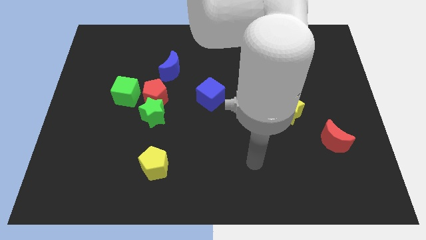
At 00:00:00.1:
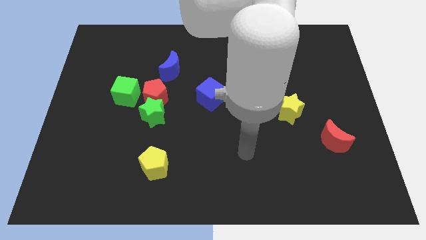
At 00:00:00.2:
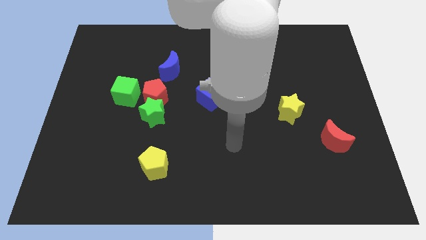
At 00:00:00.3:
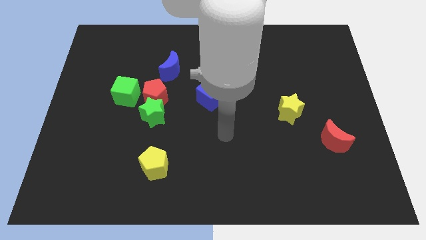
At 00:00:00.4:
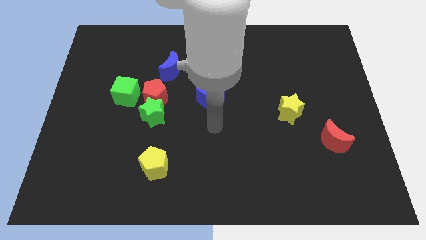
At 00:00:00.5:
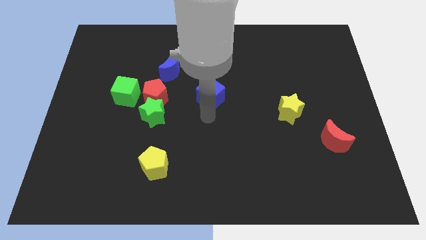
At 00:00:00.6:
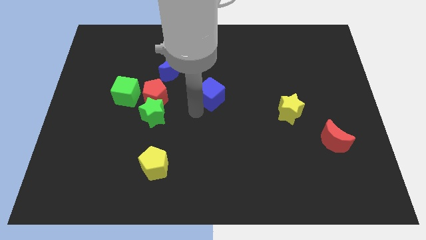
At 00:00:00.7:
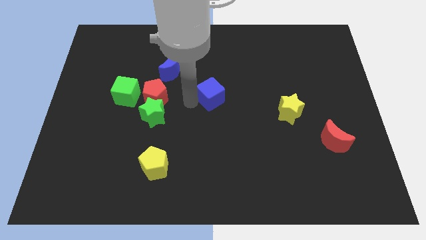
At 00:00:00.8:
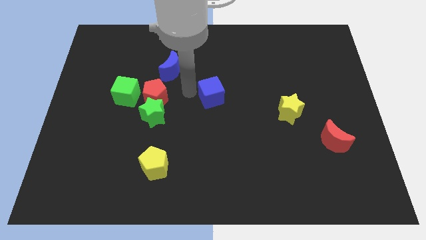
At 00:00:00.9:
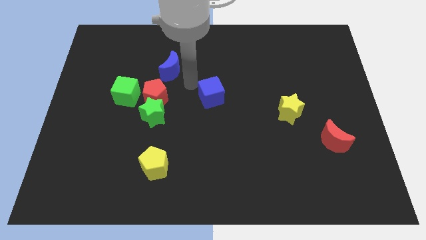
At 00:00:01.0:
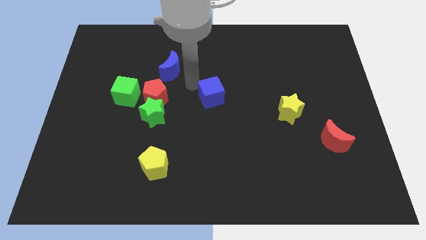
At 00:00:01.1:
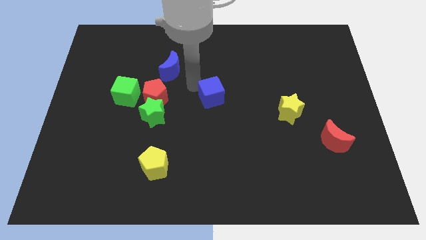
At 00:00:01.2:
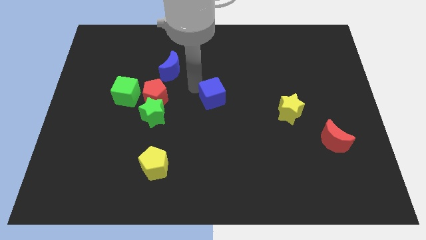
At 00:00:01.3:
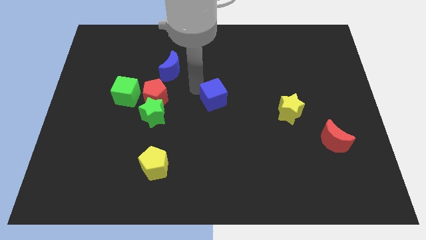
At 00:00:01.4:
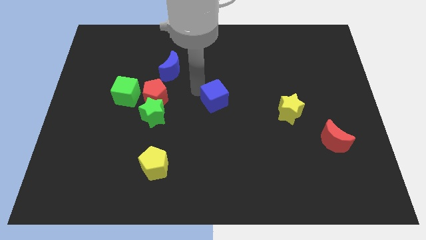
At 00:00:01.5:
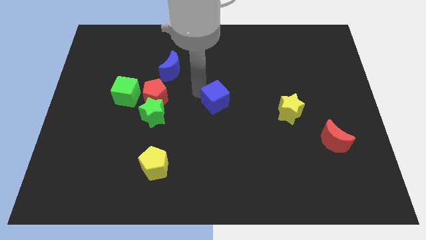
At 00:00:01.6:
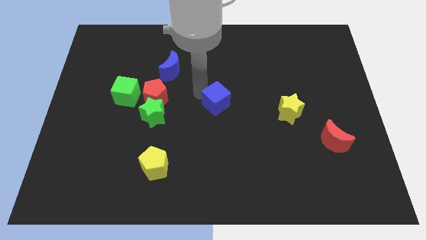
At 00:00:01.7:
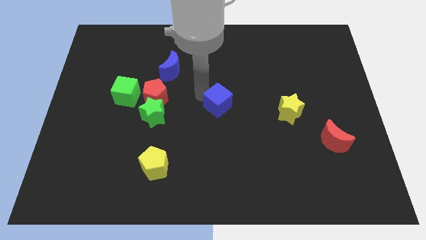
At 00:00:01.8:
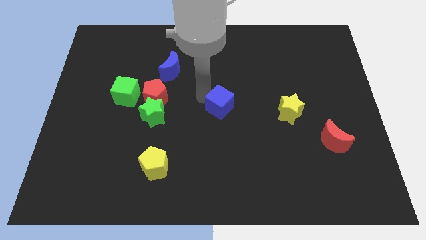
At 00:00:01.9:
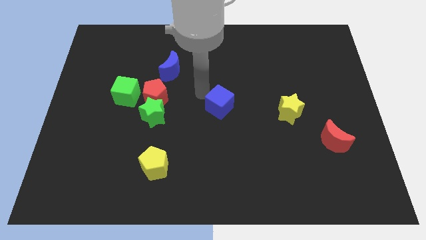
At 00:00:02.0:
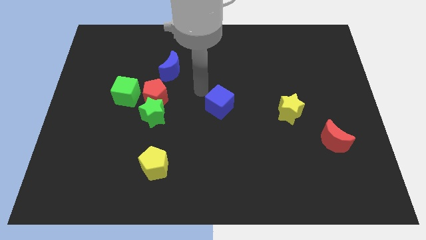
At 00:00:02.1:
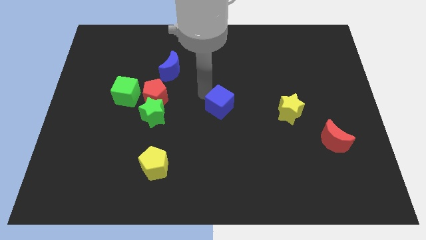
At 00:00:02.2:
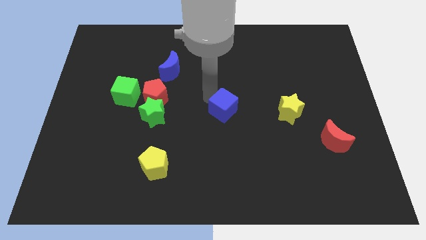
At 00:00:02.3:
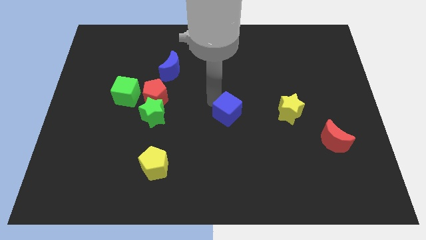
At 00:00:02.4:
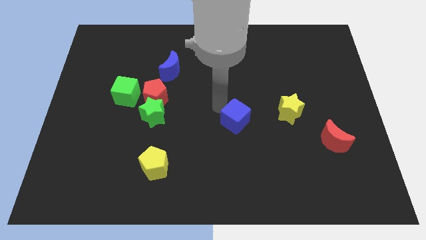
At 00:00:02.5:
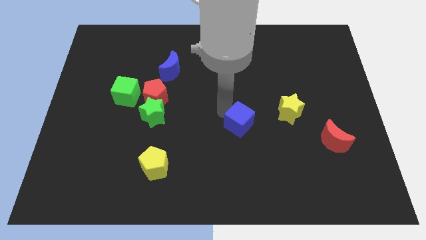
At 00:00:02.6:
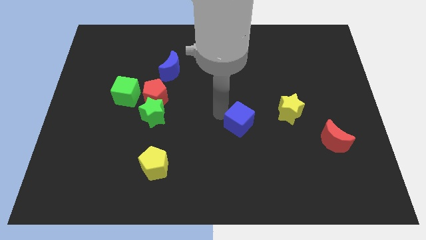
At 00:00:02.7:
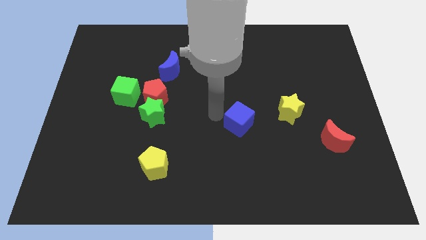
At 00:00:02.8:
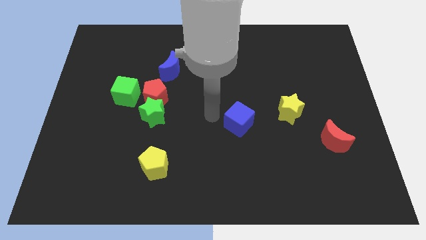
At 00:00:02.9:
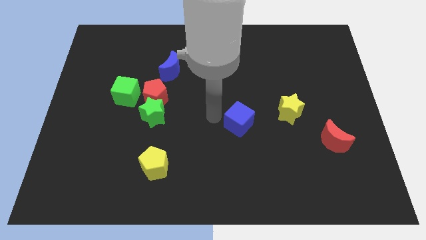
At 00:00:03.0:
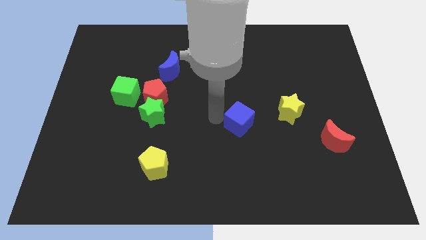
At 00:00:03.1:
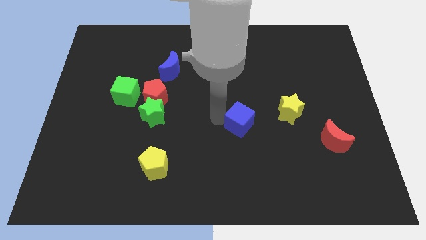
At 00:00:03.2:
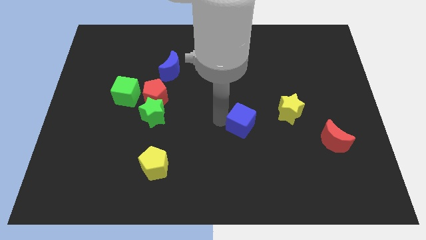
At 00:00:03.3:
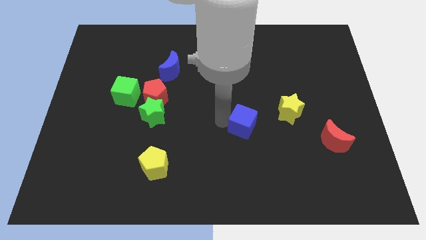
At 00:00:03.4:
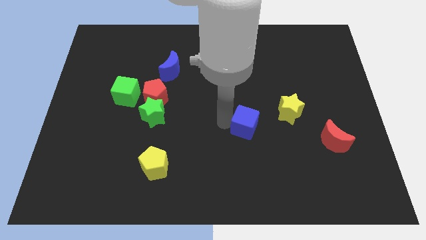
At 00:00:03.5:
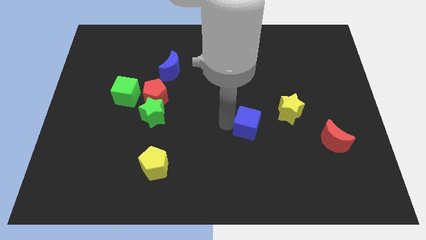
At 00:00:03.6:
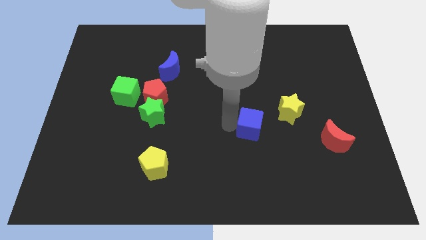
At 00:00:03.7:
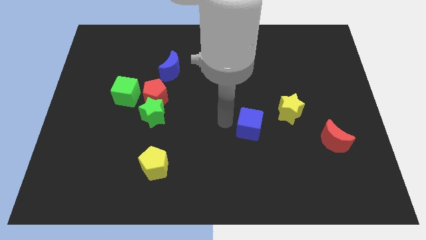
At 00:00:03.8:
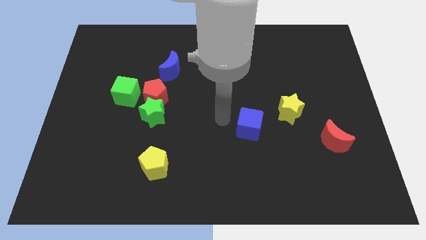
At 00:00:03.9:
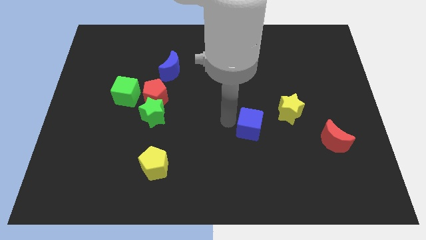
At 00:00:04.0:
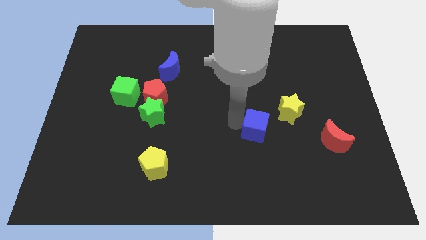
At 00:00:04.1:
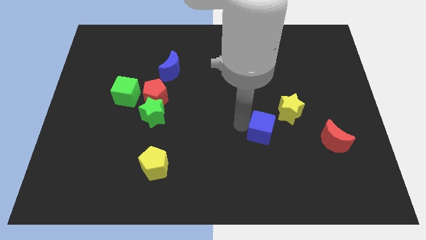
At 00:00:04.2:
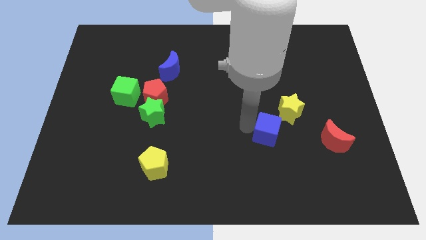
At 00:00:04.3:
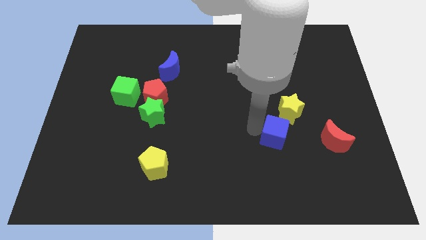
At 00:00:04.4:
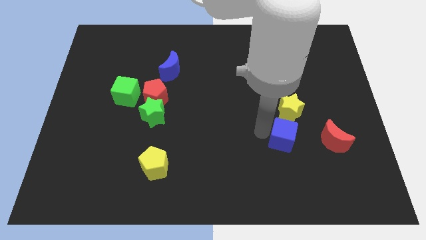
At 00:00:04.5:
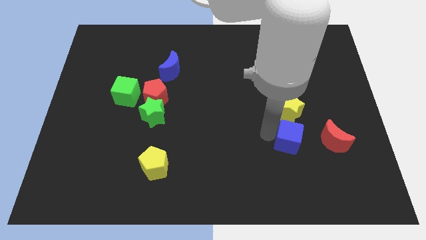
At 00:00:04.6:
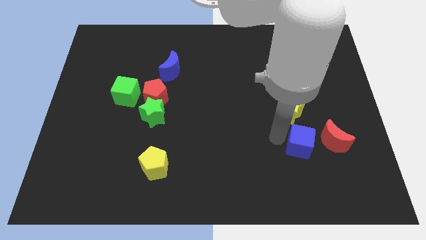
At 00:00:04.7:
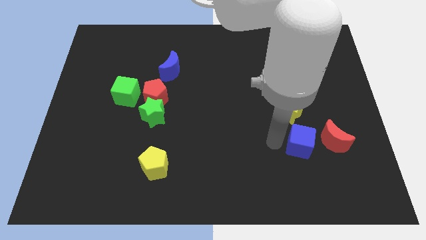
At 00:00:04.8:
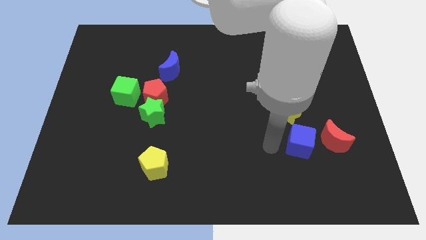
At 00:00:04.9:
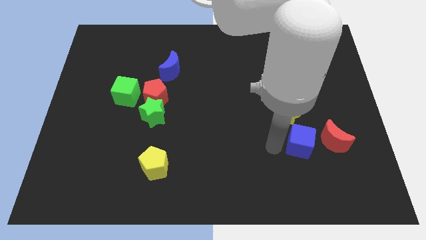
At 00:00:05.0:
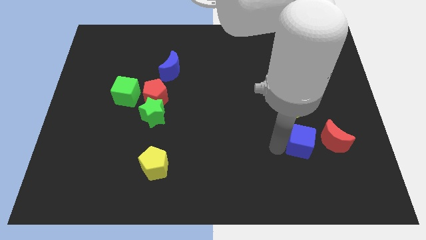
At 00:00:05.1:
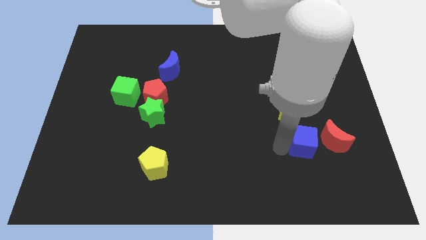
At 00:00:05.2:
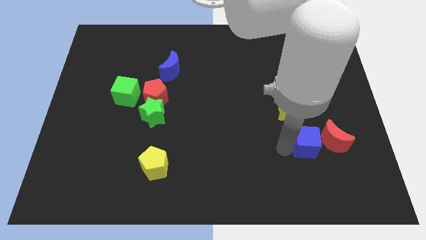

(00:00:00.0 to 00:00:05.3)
slide the blue cube to the red moon

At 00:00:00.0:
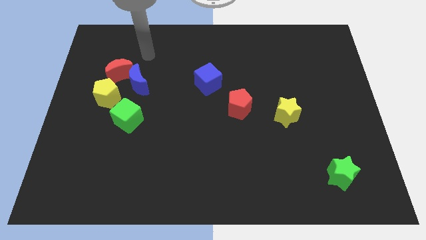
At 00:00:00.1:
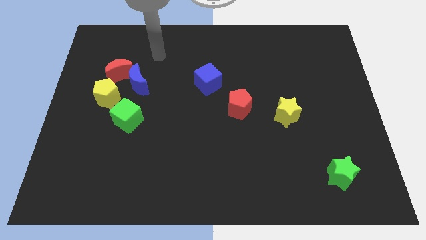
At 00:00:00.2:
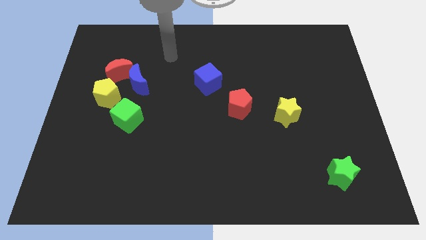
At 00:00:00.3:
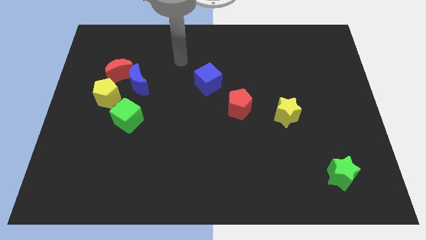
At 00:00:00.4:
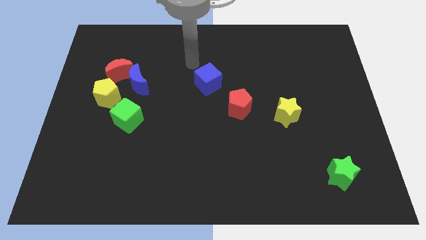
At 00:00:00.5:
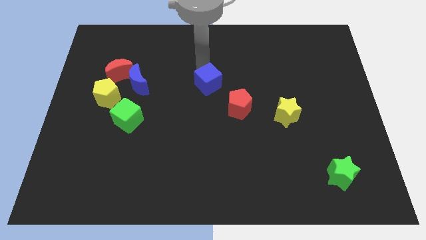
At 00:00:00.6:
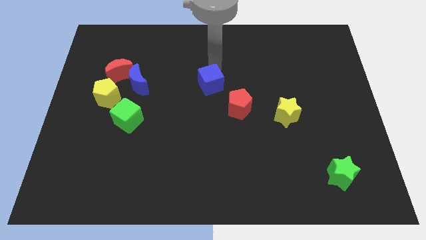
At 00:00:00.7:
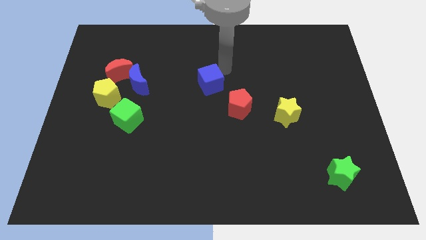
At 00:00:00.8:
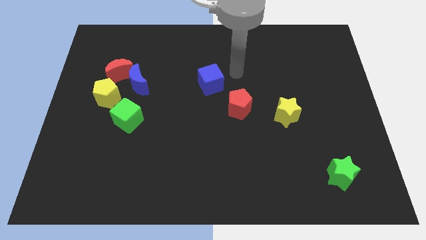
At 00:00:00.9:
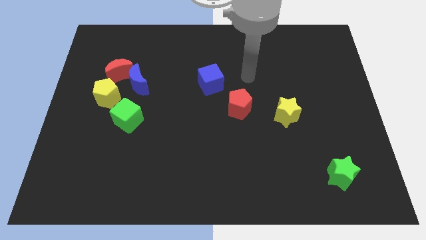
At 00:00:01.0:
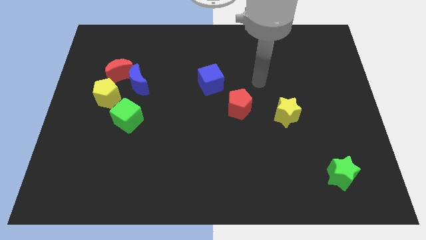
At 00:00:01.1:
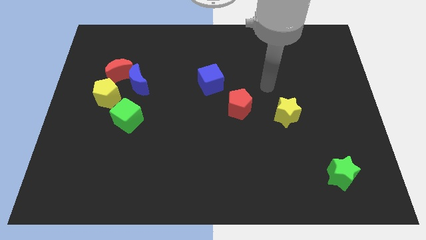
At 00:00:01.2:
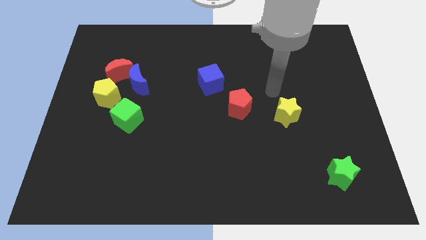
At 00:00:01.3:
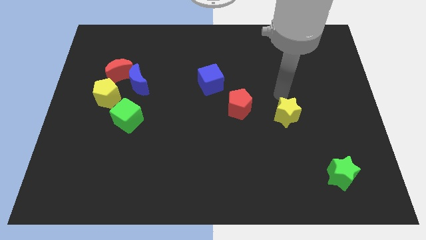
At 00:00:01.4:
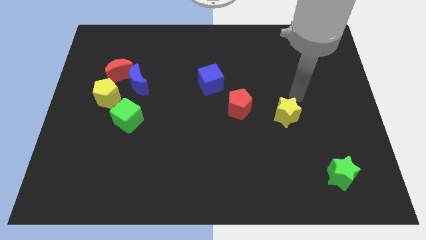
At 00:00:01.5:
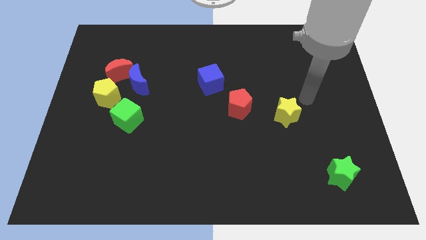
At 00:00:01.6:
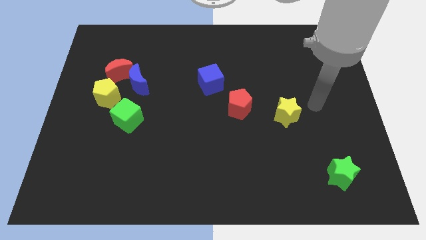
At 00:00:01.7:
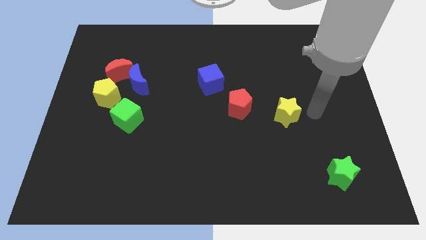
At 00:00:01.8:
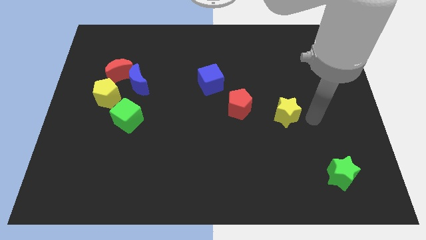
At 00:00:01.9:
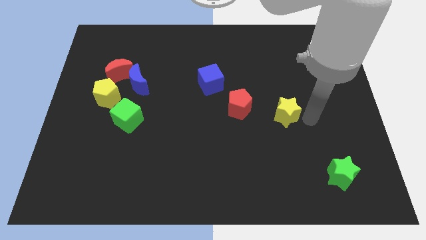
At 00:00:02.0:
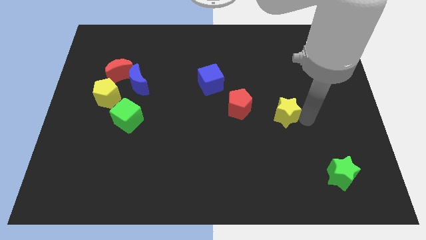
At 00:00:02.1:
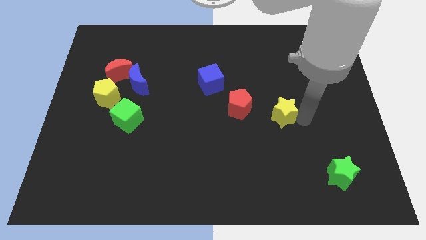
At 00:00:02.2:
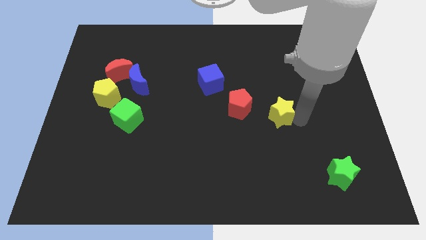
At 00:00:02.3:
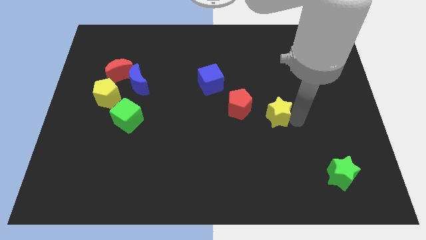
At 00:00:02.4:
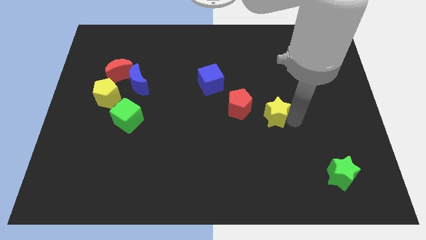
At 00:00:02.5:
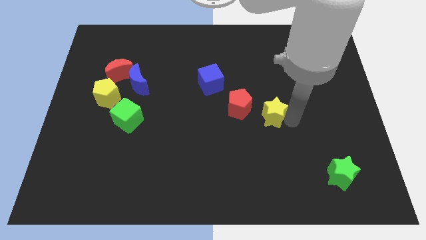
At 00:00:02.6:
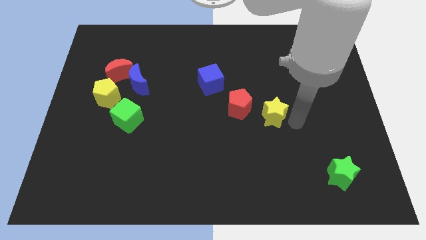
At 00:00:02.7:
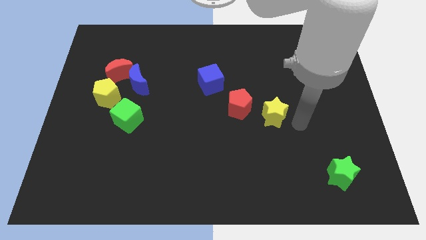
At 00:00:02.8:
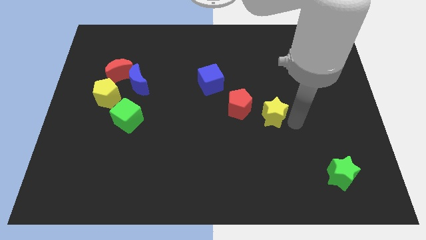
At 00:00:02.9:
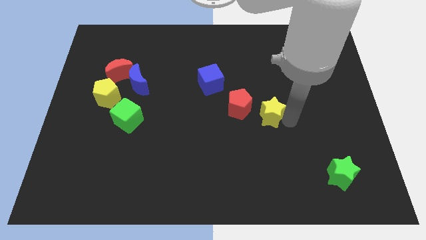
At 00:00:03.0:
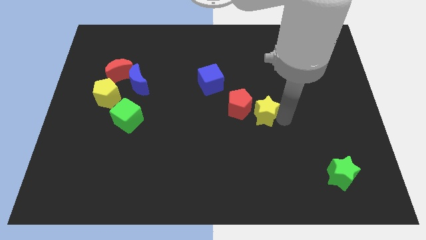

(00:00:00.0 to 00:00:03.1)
slide the yellow star to the red pentagon
